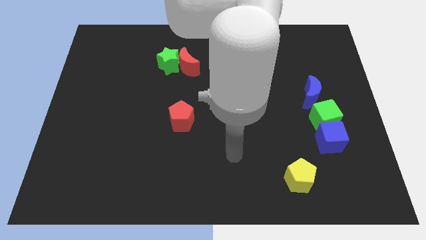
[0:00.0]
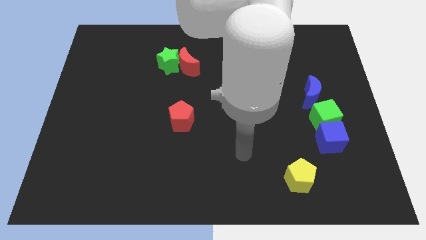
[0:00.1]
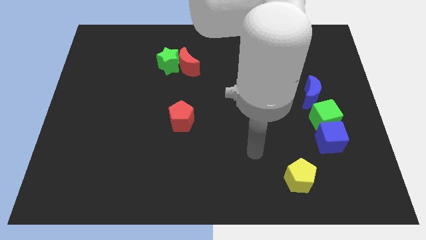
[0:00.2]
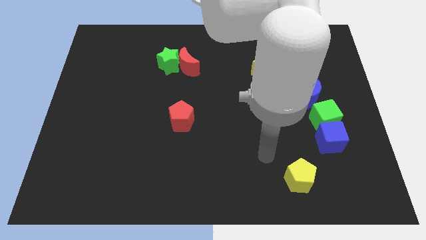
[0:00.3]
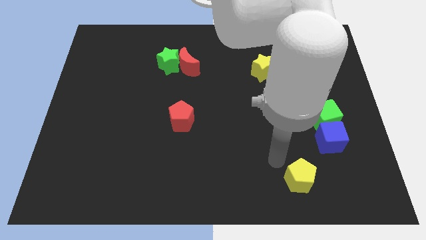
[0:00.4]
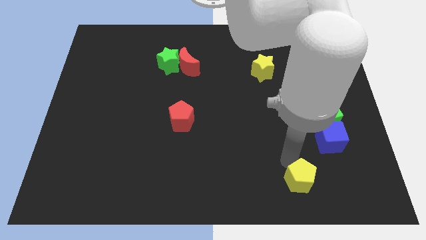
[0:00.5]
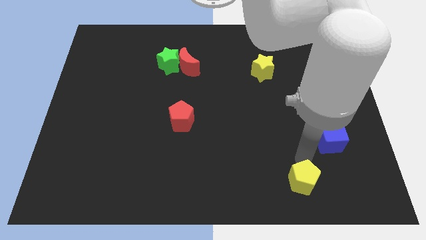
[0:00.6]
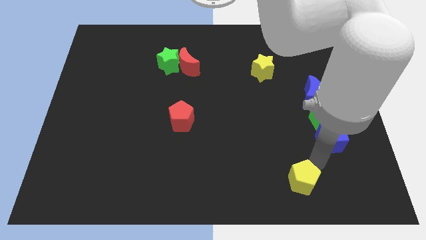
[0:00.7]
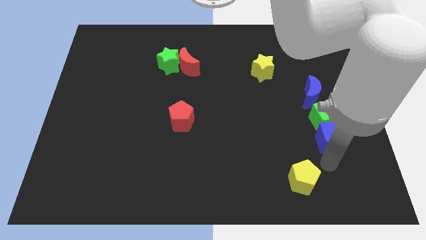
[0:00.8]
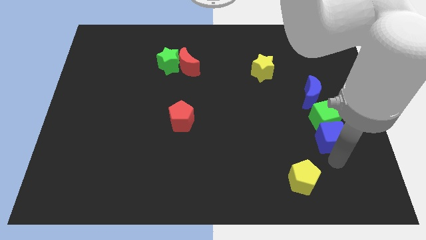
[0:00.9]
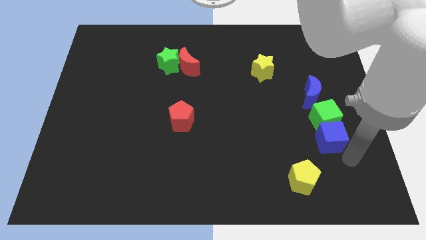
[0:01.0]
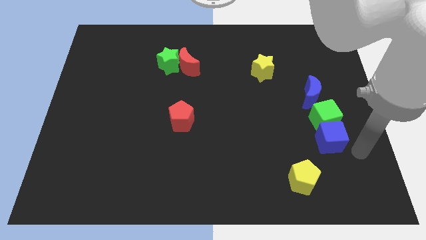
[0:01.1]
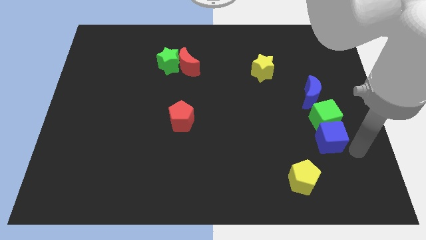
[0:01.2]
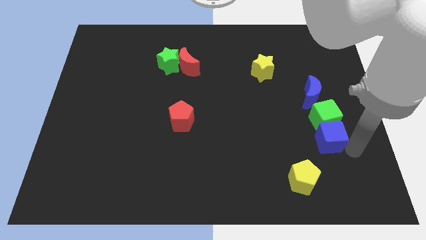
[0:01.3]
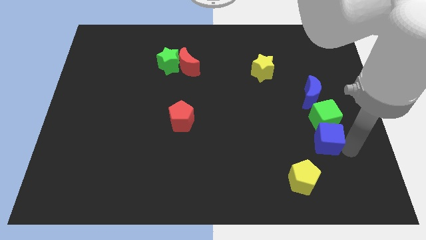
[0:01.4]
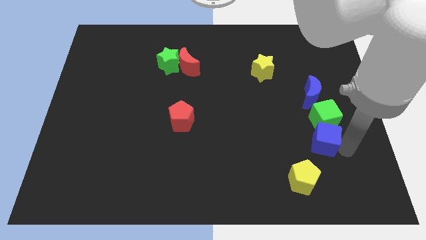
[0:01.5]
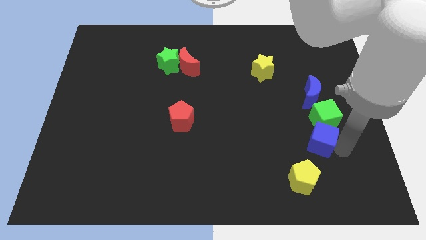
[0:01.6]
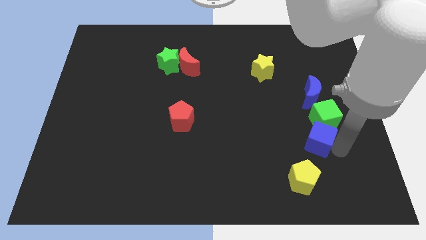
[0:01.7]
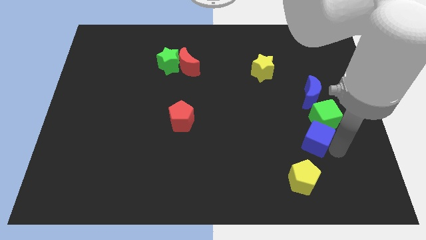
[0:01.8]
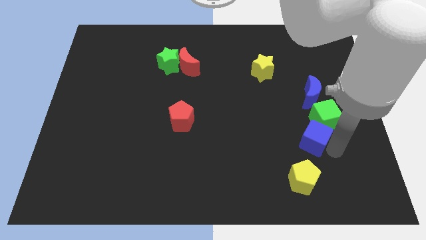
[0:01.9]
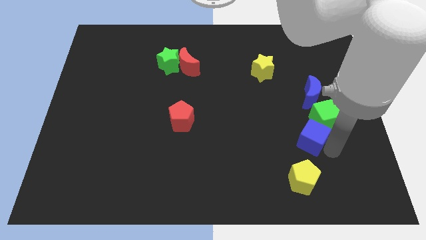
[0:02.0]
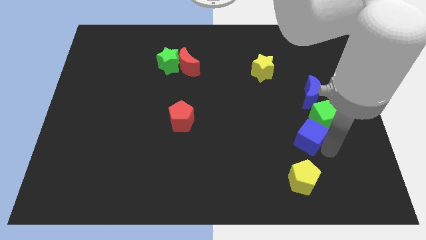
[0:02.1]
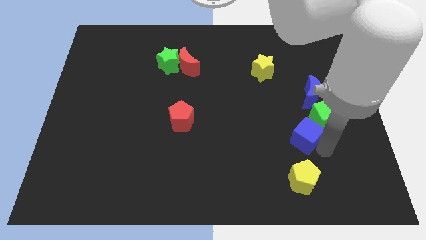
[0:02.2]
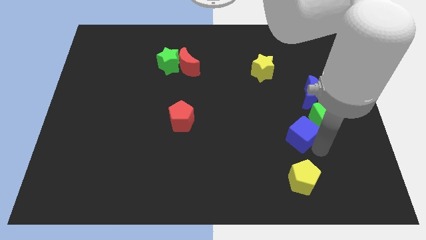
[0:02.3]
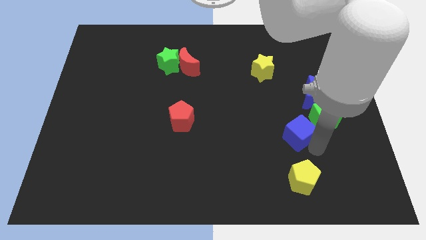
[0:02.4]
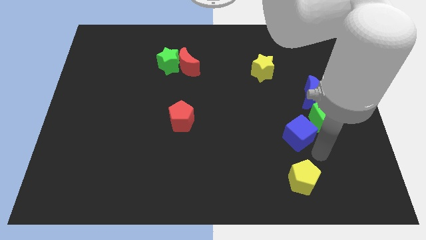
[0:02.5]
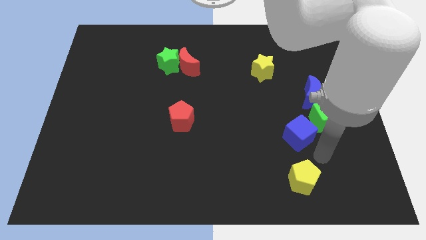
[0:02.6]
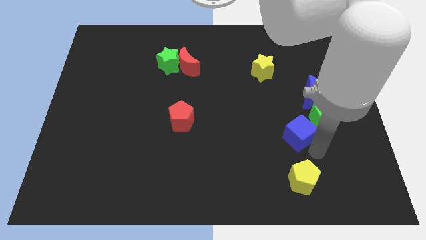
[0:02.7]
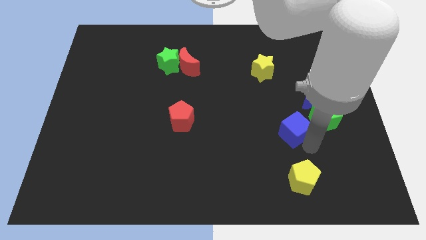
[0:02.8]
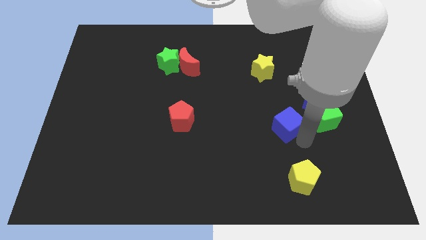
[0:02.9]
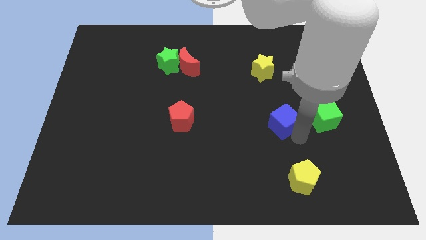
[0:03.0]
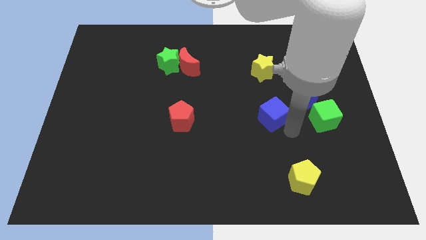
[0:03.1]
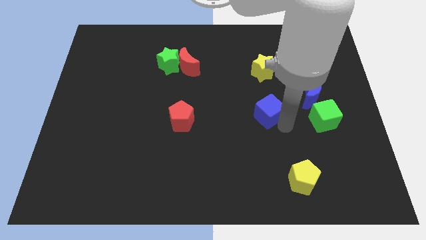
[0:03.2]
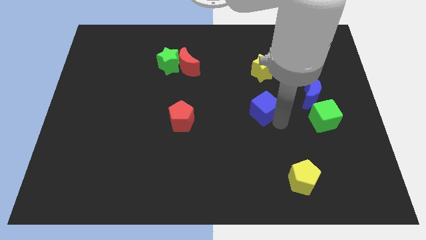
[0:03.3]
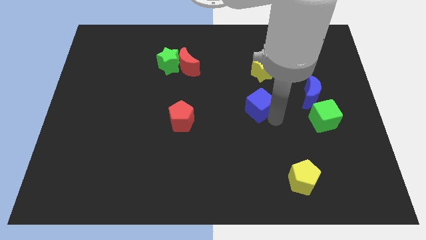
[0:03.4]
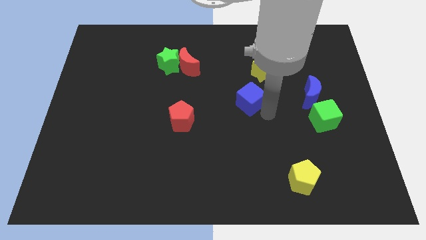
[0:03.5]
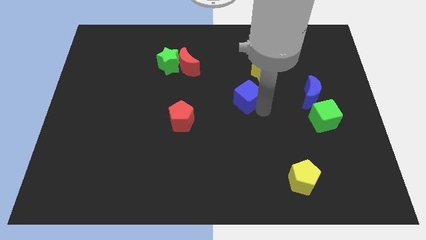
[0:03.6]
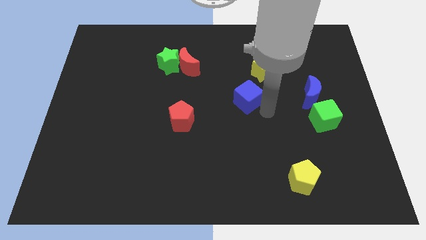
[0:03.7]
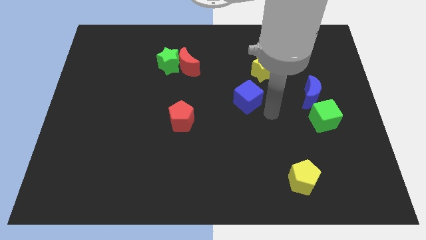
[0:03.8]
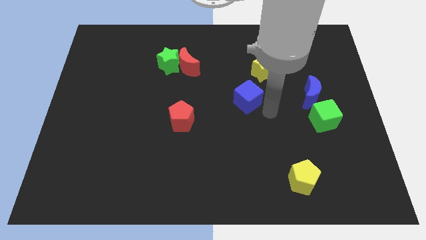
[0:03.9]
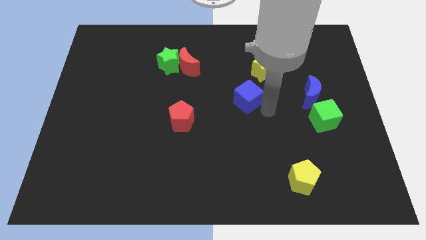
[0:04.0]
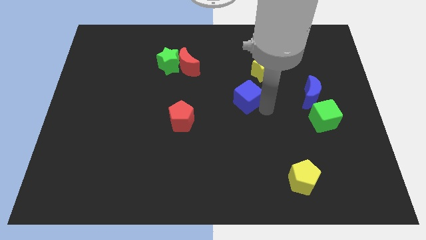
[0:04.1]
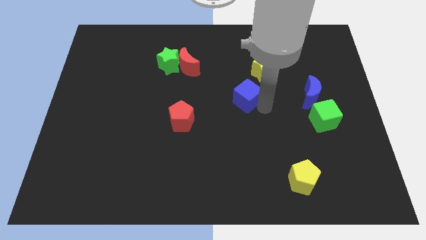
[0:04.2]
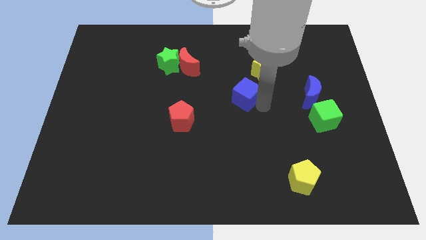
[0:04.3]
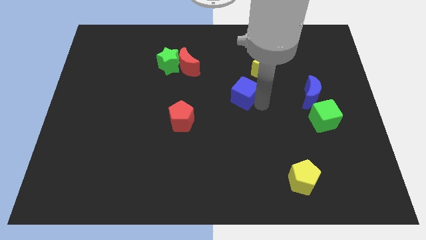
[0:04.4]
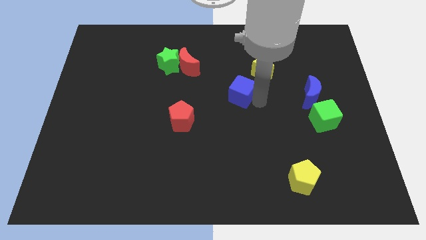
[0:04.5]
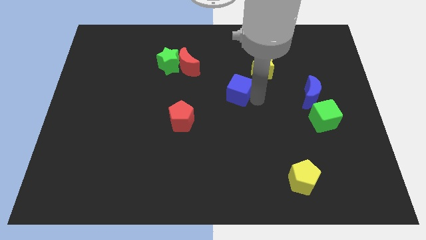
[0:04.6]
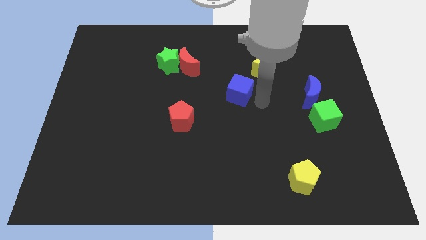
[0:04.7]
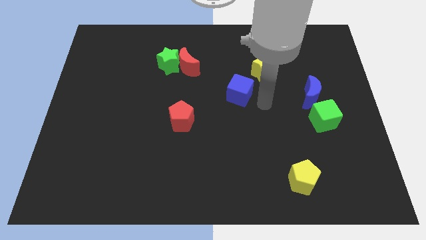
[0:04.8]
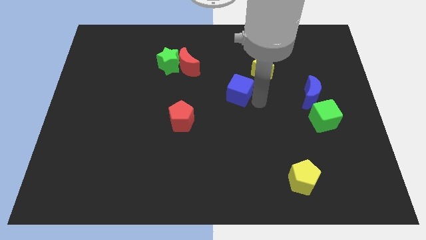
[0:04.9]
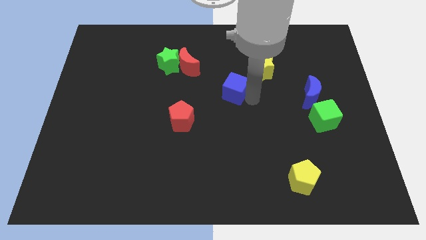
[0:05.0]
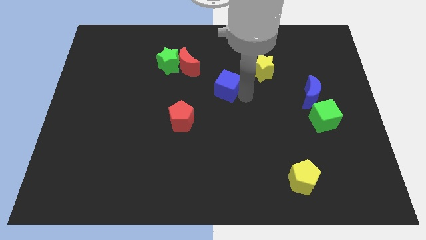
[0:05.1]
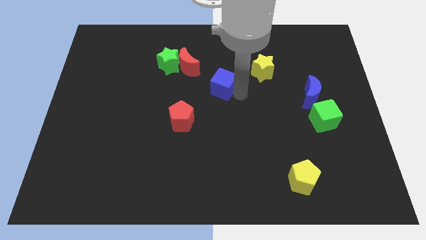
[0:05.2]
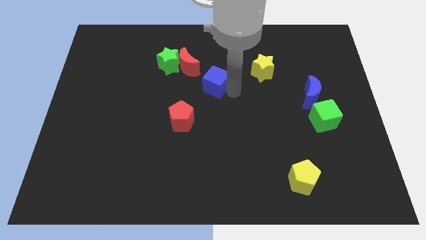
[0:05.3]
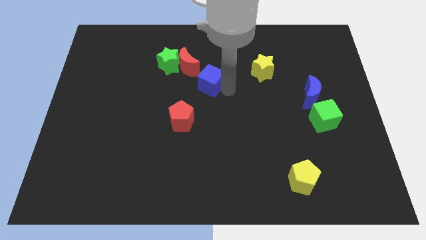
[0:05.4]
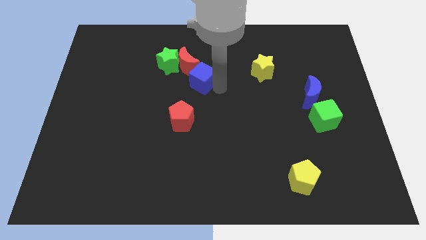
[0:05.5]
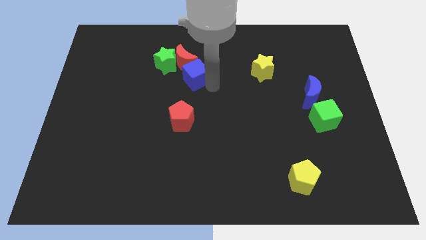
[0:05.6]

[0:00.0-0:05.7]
push the blue cube next to the red moon

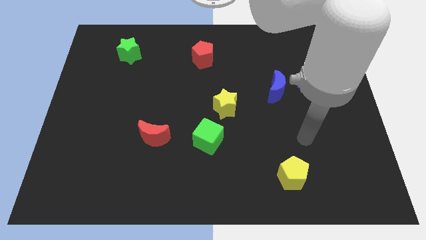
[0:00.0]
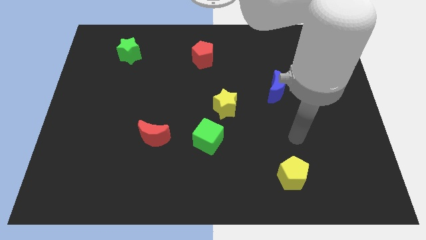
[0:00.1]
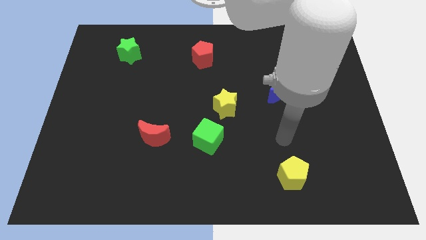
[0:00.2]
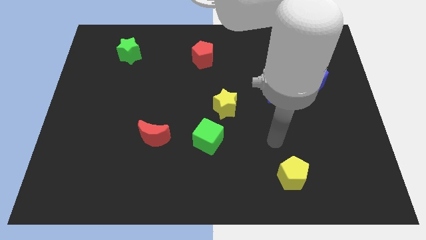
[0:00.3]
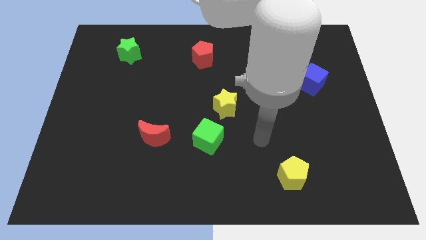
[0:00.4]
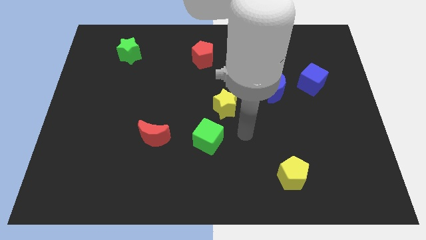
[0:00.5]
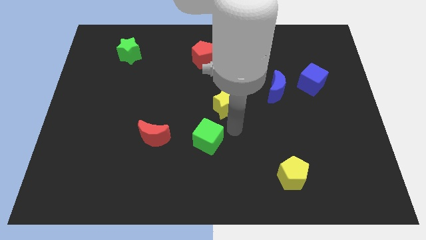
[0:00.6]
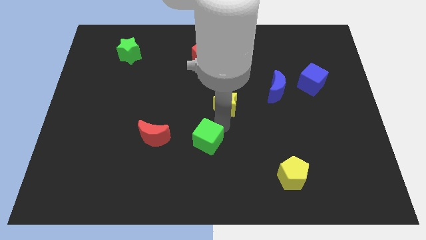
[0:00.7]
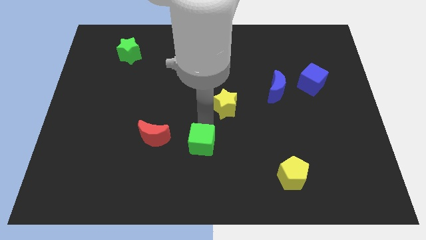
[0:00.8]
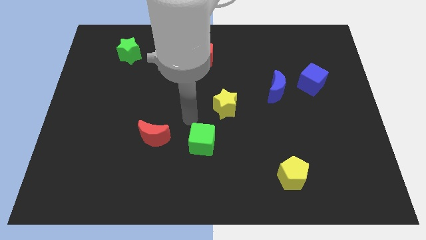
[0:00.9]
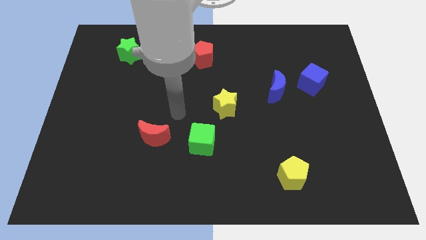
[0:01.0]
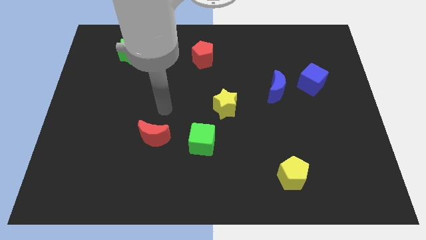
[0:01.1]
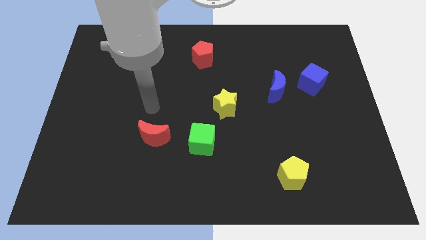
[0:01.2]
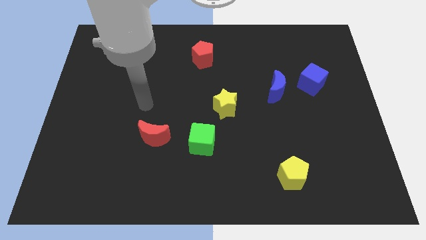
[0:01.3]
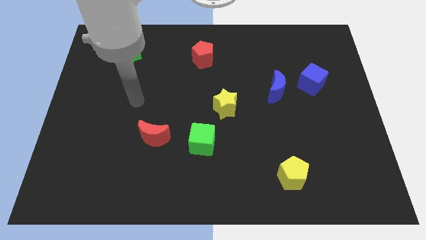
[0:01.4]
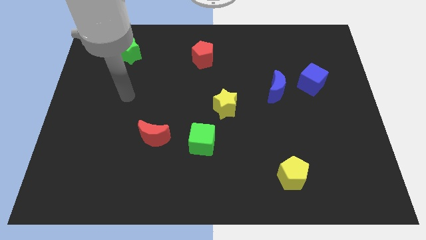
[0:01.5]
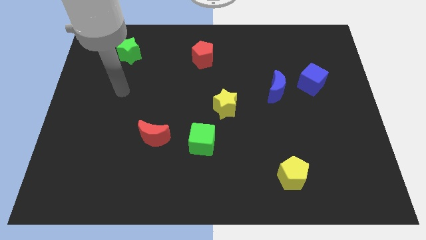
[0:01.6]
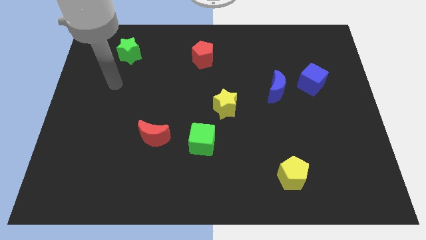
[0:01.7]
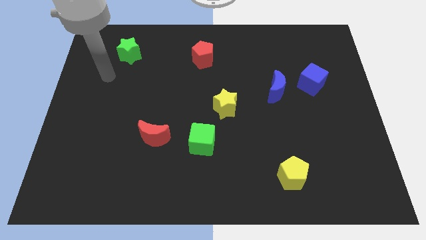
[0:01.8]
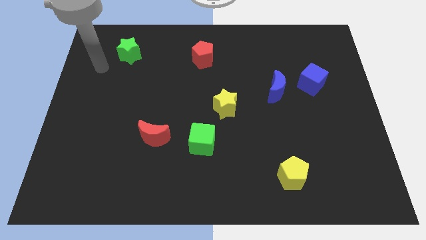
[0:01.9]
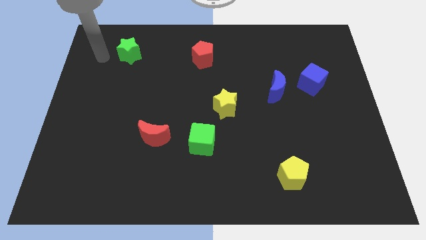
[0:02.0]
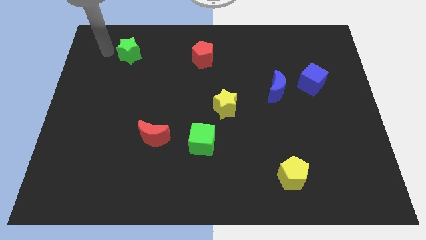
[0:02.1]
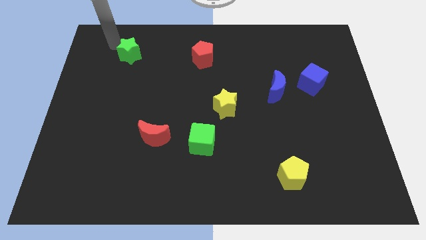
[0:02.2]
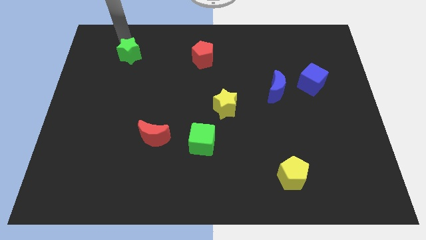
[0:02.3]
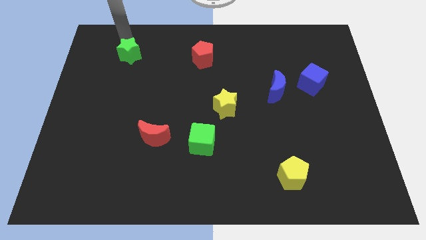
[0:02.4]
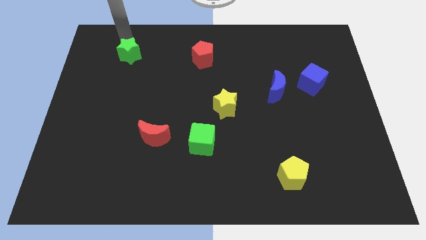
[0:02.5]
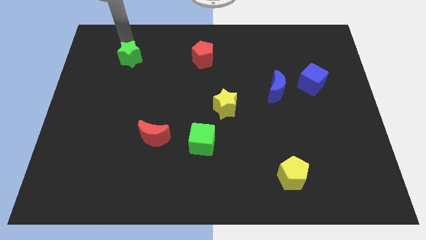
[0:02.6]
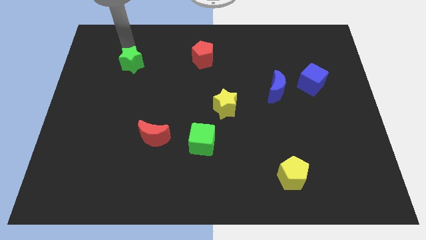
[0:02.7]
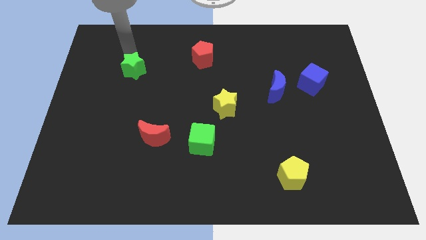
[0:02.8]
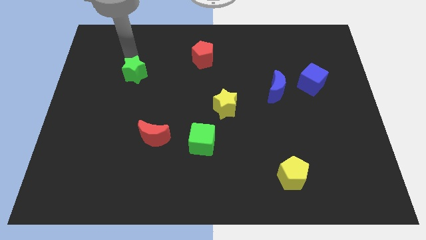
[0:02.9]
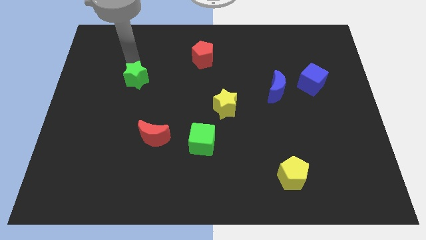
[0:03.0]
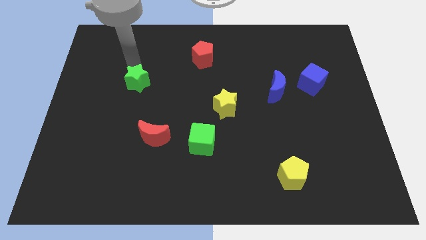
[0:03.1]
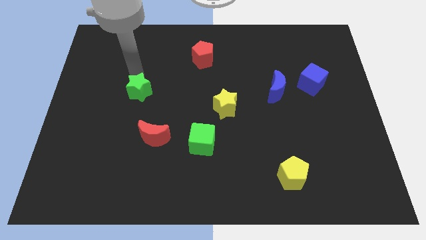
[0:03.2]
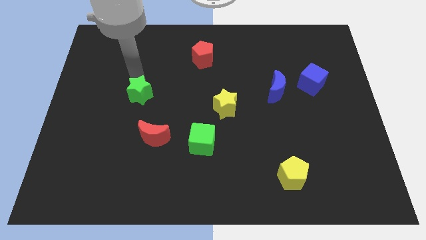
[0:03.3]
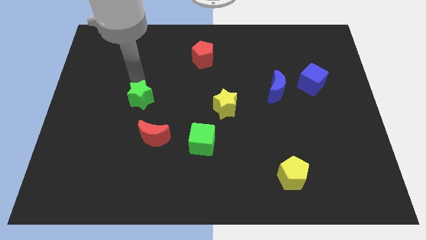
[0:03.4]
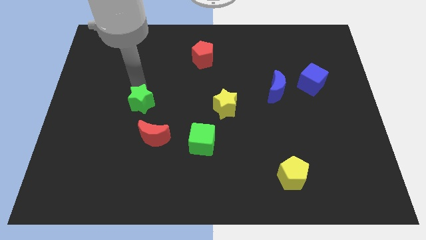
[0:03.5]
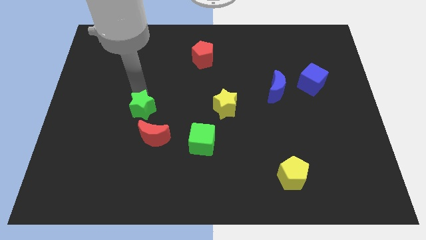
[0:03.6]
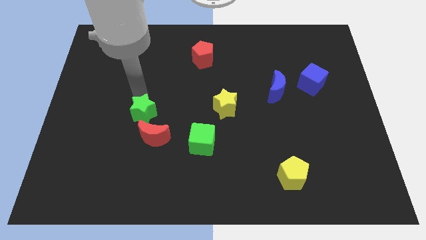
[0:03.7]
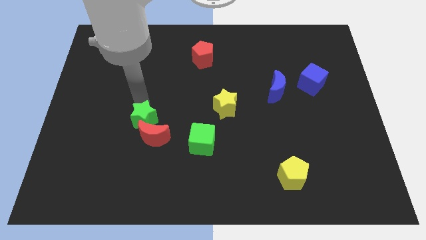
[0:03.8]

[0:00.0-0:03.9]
move the green star to the red moon
